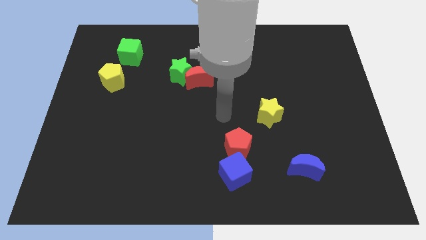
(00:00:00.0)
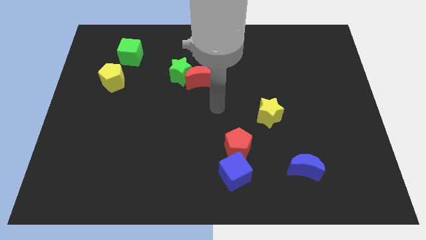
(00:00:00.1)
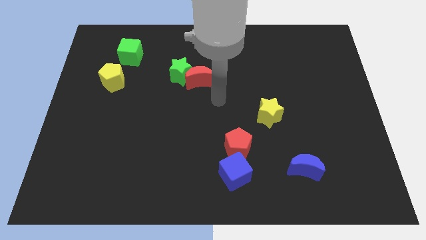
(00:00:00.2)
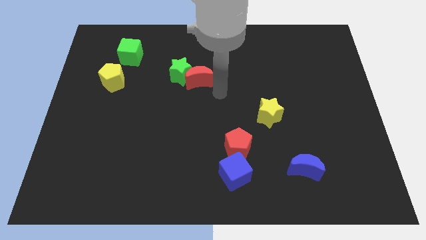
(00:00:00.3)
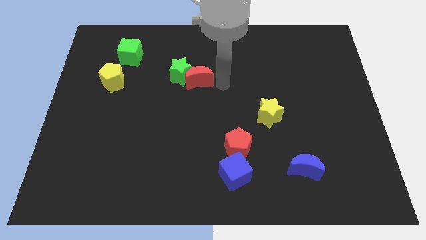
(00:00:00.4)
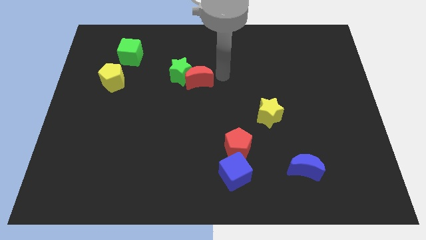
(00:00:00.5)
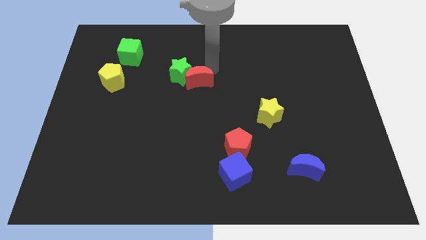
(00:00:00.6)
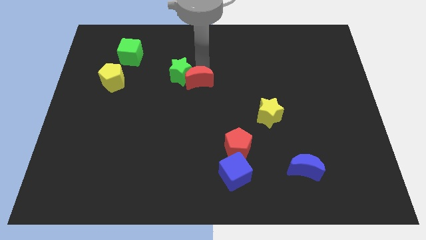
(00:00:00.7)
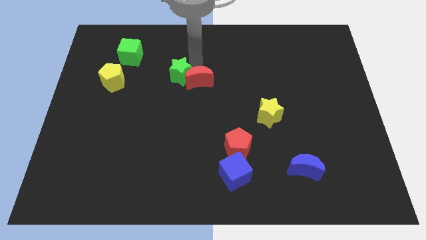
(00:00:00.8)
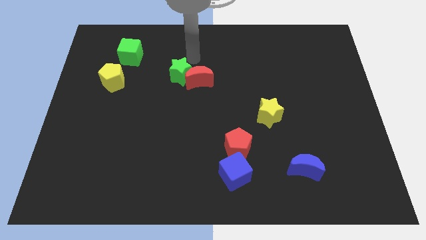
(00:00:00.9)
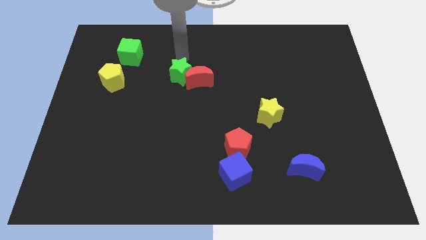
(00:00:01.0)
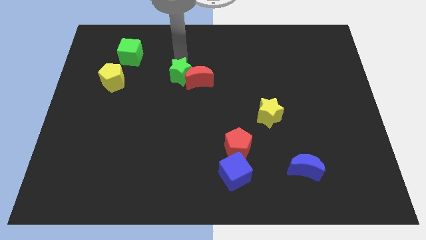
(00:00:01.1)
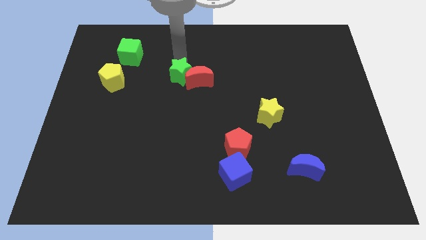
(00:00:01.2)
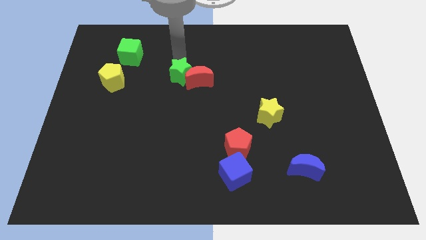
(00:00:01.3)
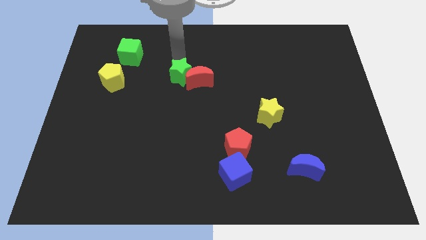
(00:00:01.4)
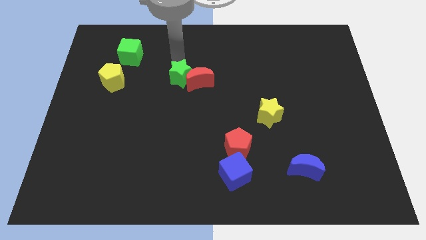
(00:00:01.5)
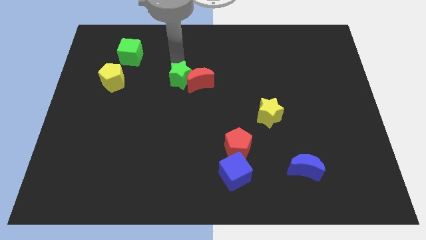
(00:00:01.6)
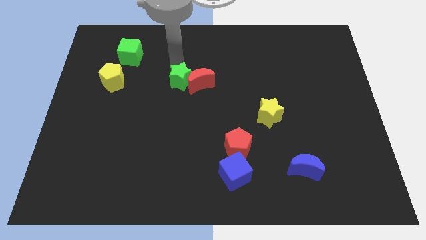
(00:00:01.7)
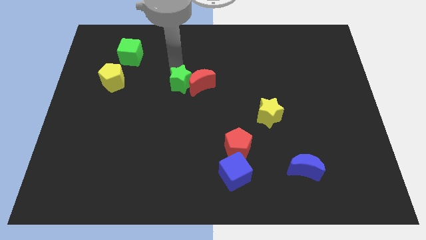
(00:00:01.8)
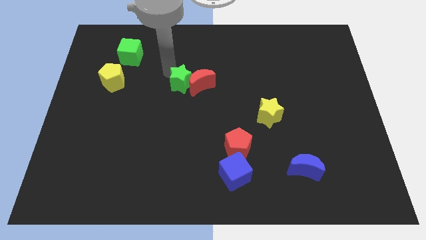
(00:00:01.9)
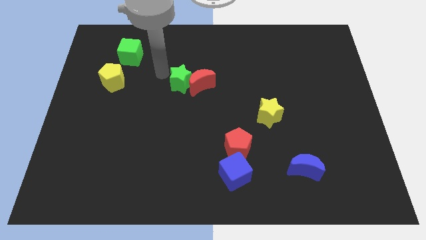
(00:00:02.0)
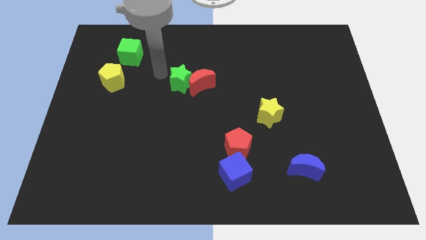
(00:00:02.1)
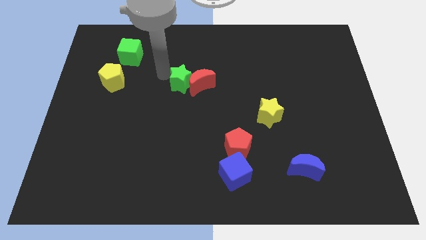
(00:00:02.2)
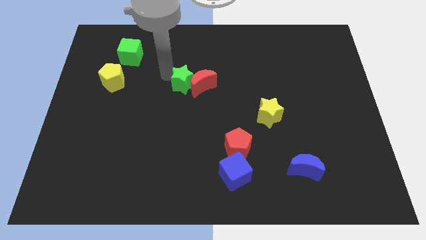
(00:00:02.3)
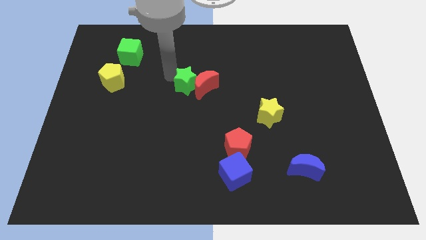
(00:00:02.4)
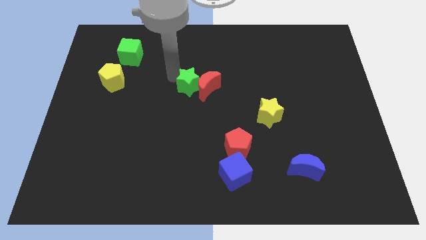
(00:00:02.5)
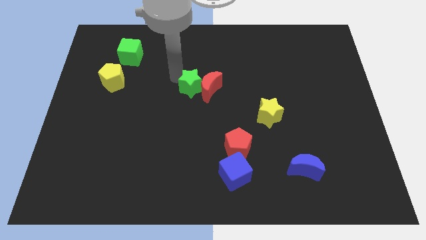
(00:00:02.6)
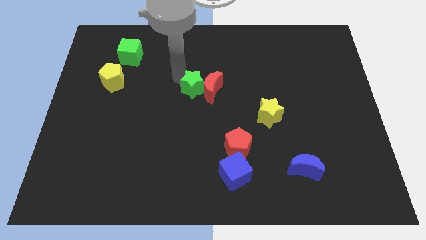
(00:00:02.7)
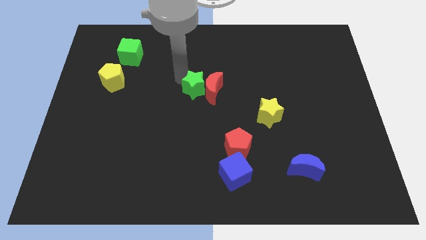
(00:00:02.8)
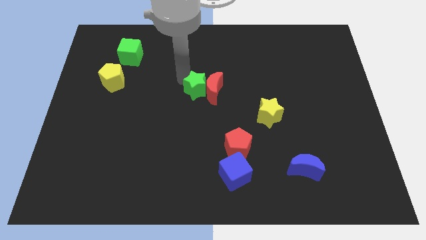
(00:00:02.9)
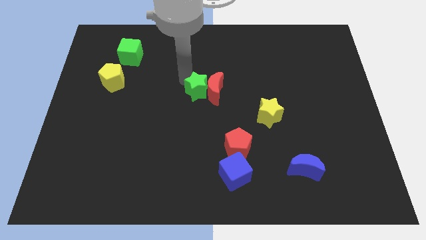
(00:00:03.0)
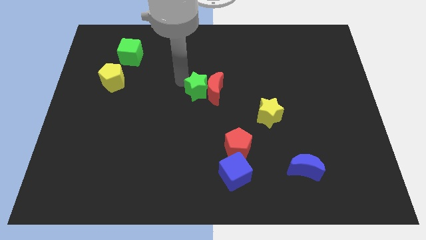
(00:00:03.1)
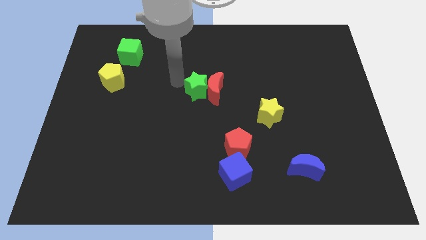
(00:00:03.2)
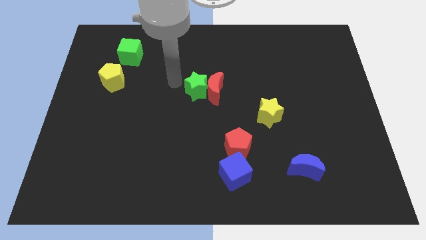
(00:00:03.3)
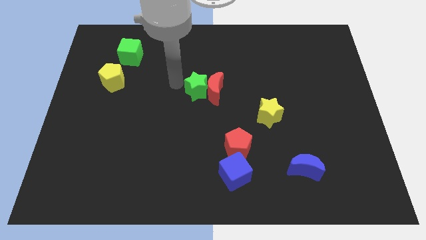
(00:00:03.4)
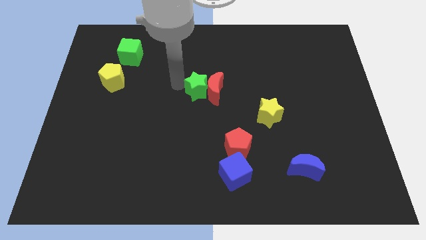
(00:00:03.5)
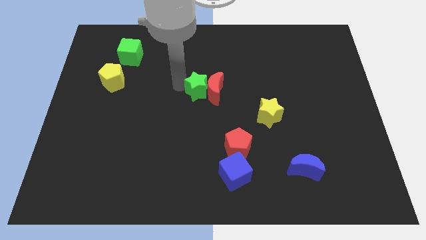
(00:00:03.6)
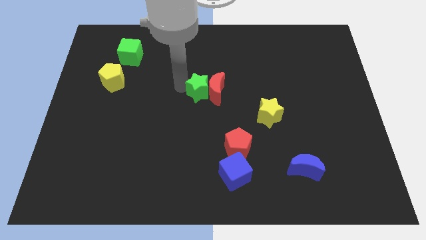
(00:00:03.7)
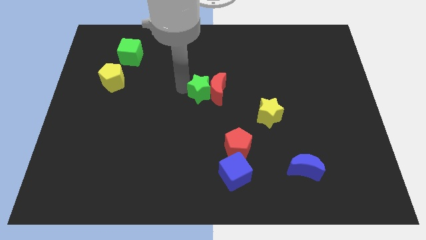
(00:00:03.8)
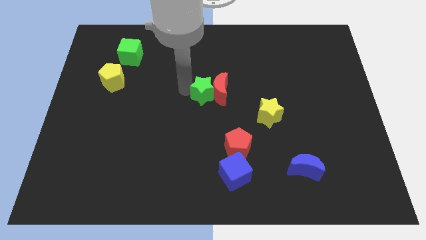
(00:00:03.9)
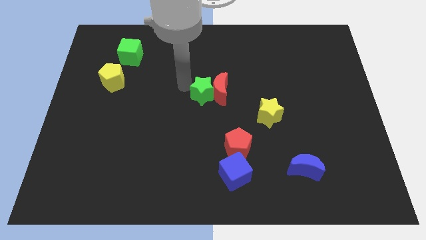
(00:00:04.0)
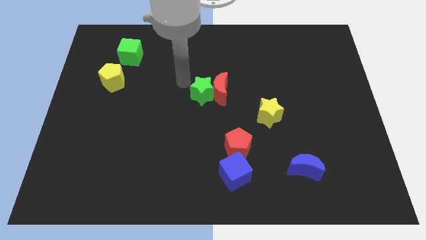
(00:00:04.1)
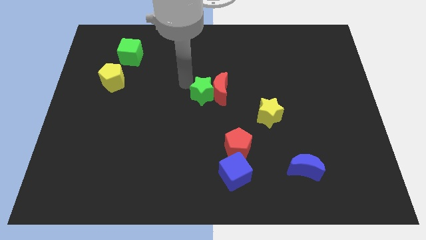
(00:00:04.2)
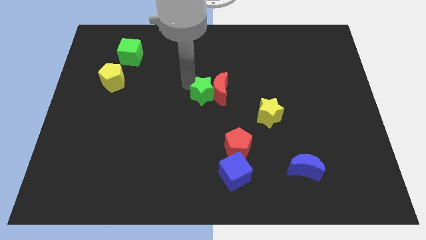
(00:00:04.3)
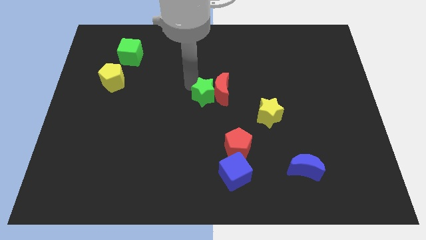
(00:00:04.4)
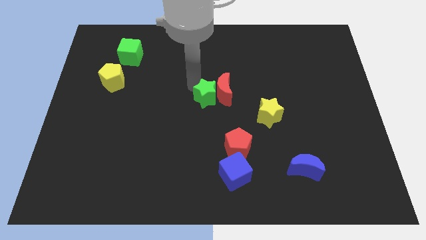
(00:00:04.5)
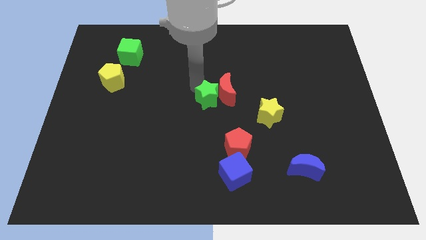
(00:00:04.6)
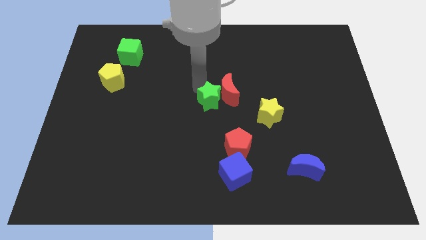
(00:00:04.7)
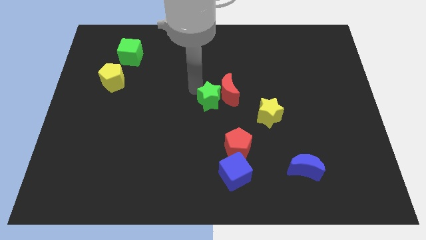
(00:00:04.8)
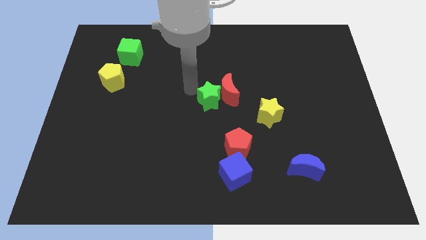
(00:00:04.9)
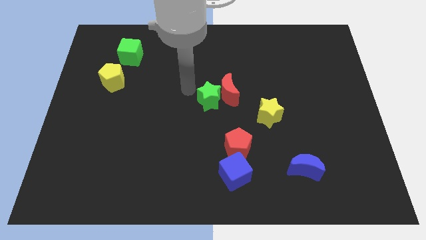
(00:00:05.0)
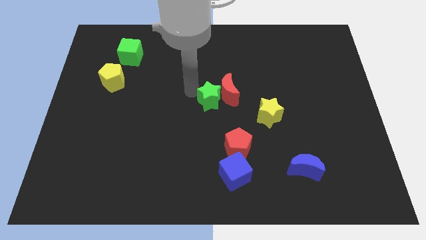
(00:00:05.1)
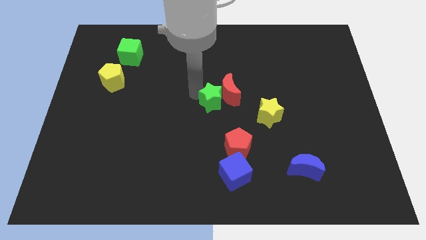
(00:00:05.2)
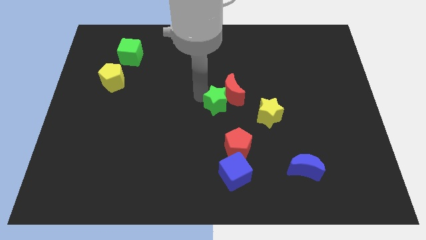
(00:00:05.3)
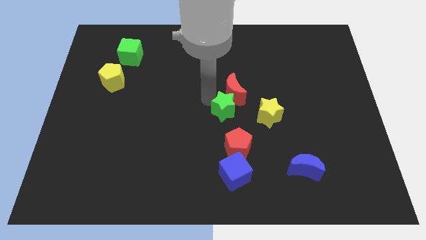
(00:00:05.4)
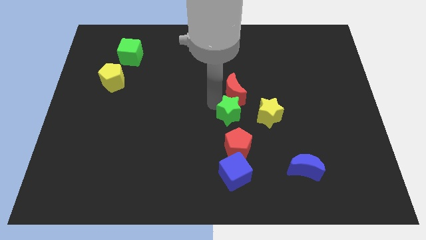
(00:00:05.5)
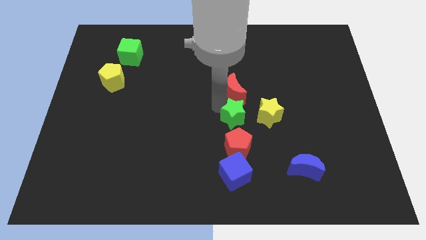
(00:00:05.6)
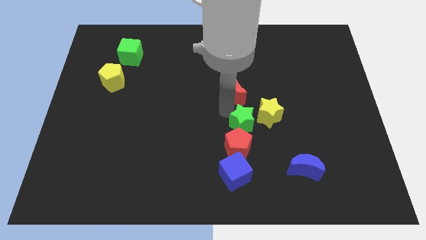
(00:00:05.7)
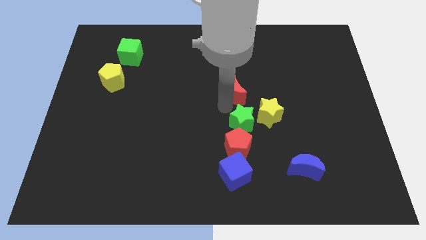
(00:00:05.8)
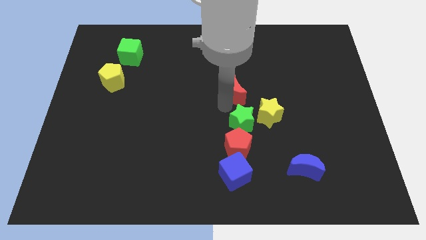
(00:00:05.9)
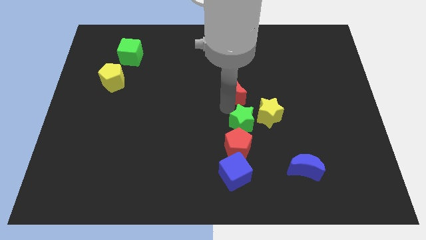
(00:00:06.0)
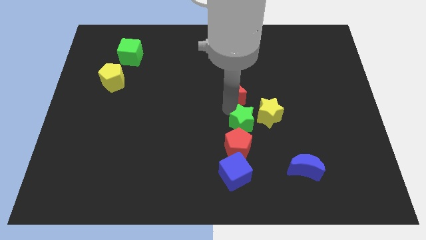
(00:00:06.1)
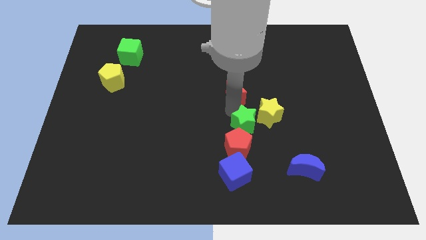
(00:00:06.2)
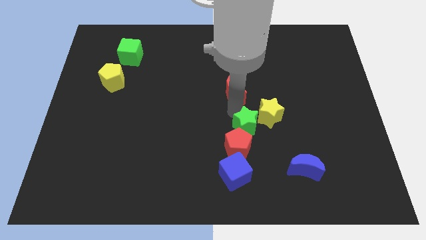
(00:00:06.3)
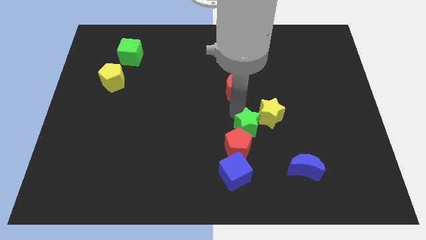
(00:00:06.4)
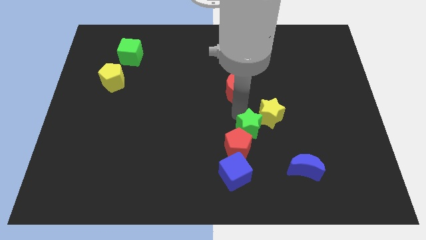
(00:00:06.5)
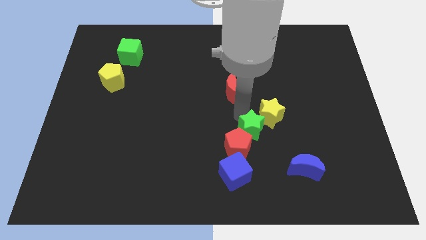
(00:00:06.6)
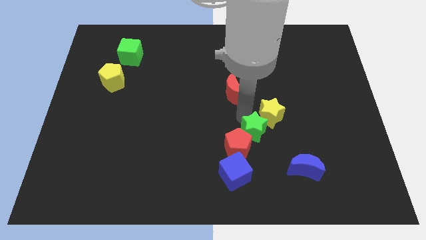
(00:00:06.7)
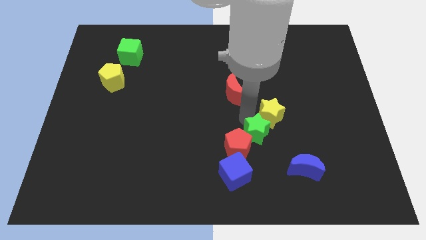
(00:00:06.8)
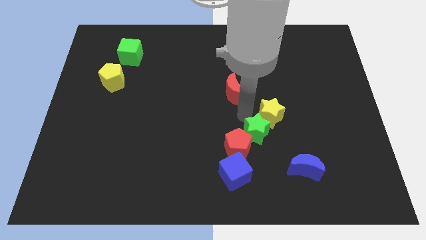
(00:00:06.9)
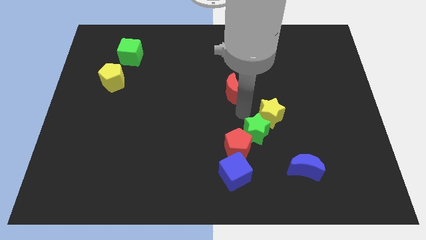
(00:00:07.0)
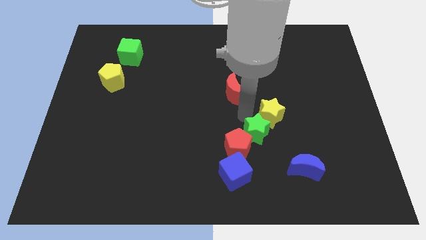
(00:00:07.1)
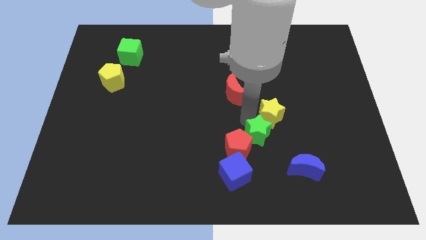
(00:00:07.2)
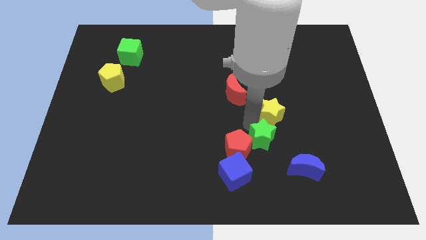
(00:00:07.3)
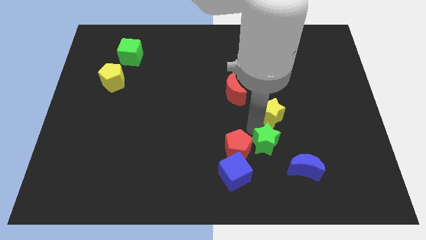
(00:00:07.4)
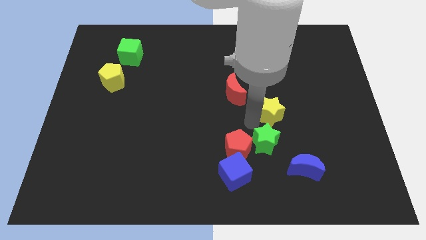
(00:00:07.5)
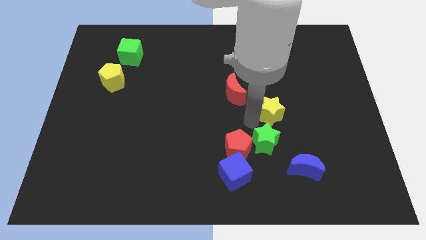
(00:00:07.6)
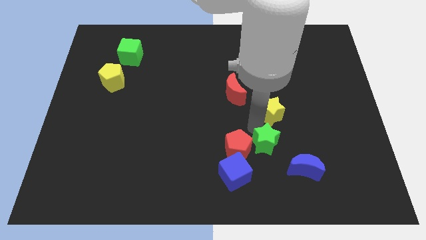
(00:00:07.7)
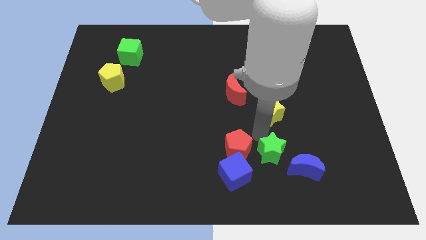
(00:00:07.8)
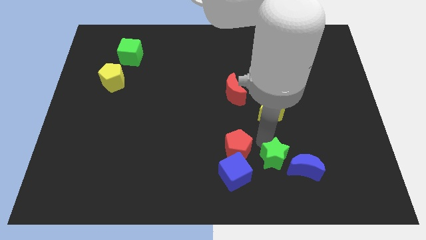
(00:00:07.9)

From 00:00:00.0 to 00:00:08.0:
slide the green star right of the blue cube
